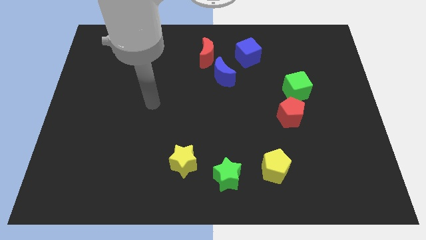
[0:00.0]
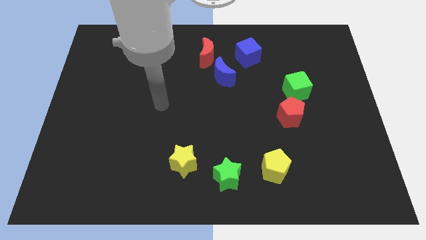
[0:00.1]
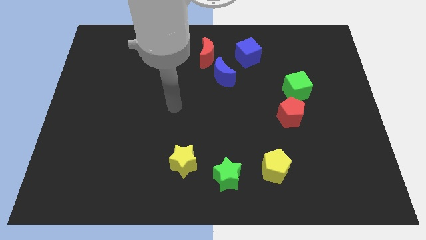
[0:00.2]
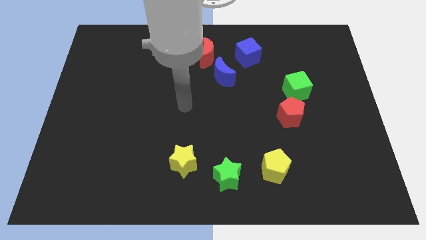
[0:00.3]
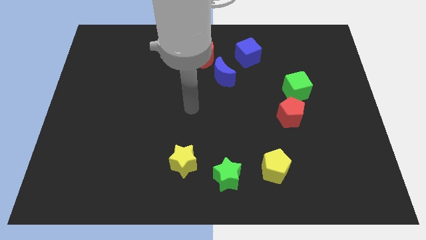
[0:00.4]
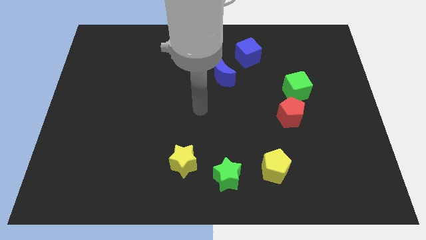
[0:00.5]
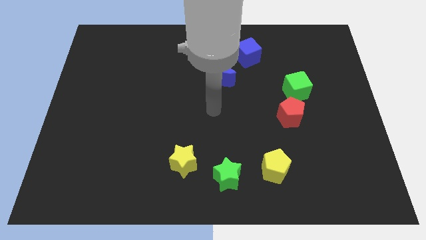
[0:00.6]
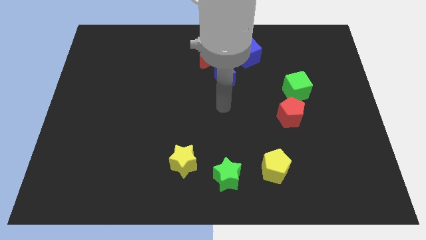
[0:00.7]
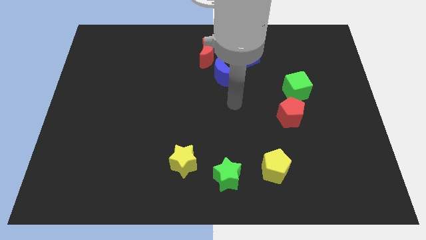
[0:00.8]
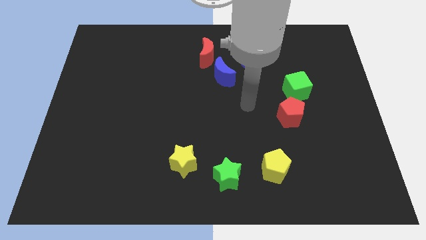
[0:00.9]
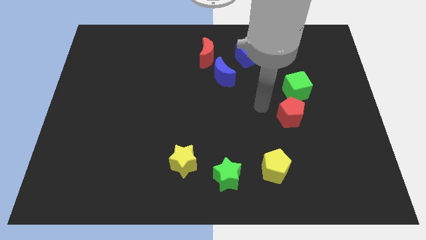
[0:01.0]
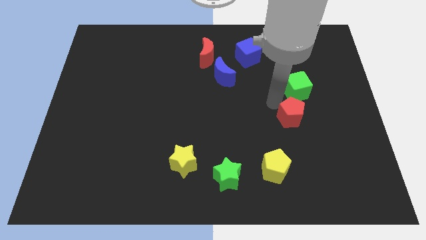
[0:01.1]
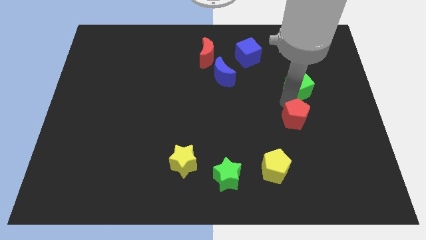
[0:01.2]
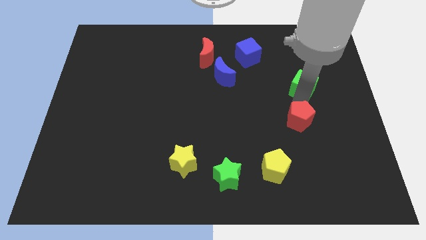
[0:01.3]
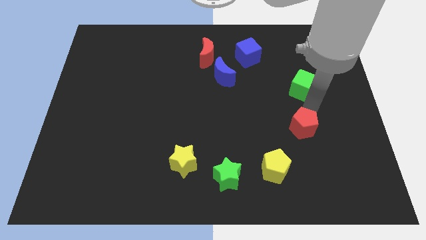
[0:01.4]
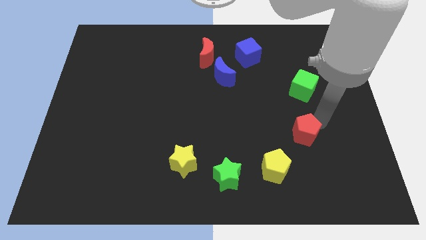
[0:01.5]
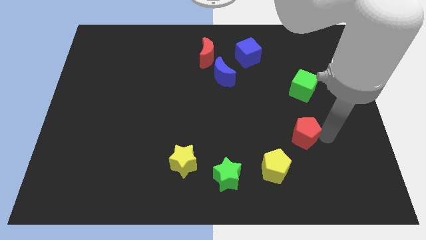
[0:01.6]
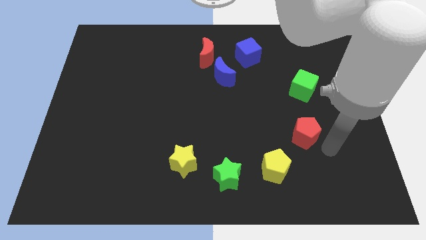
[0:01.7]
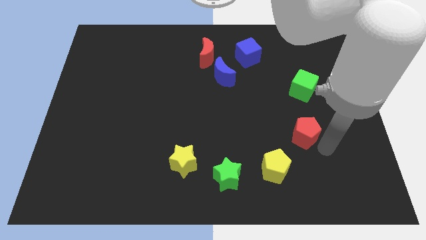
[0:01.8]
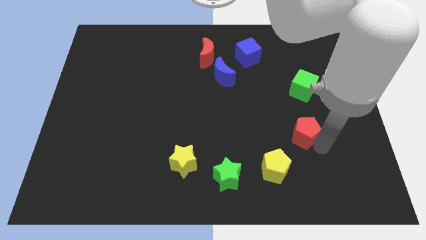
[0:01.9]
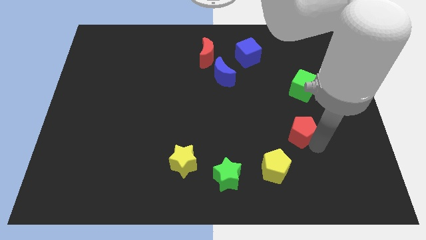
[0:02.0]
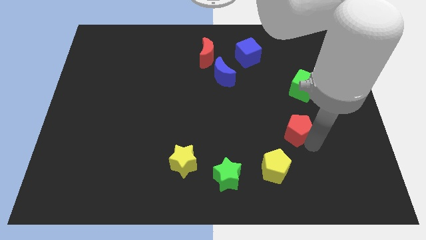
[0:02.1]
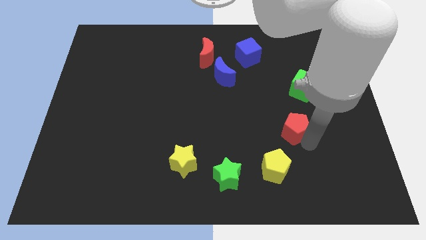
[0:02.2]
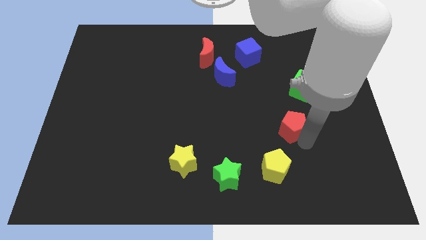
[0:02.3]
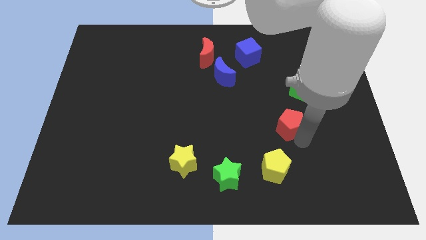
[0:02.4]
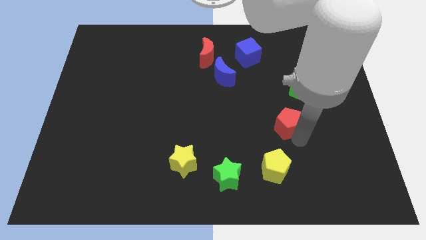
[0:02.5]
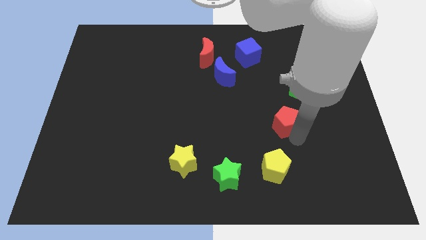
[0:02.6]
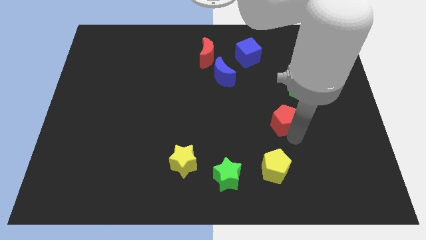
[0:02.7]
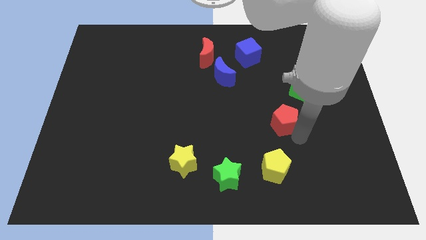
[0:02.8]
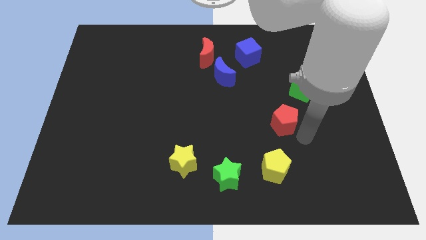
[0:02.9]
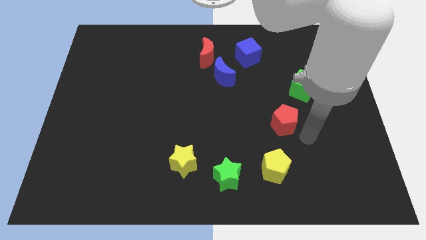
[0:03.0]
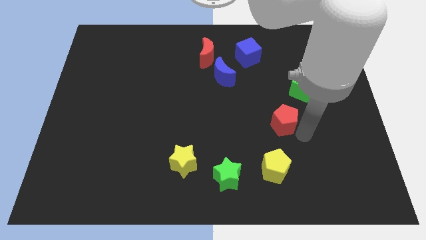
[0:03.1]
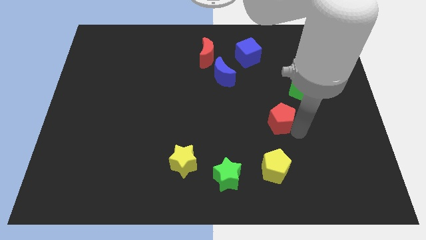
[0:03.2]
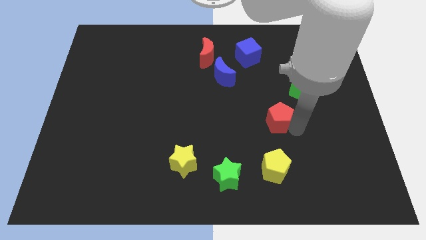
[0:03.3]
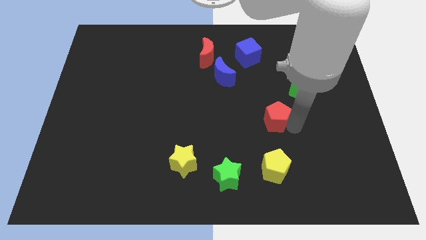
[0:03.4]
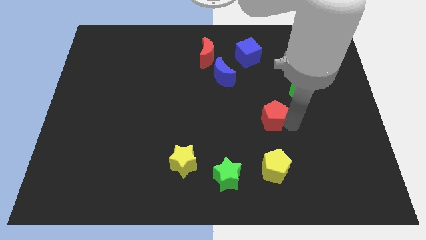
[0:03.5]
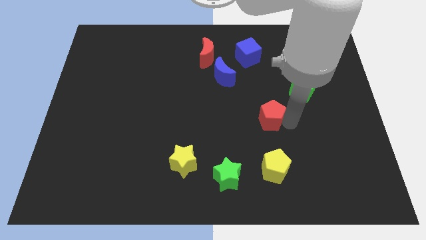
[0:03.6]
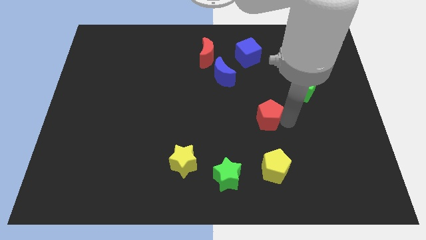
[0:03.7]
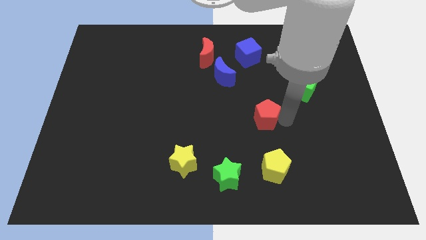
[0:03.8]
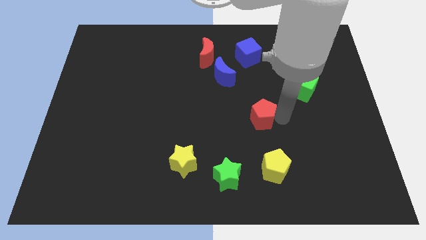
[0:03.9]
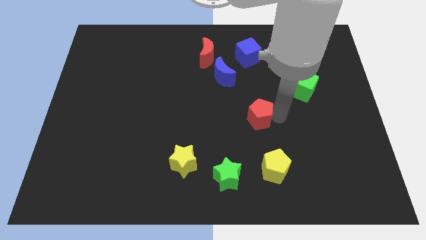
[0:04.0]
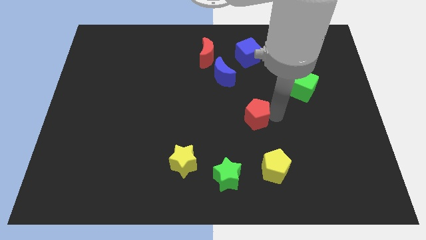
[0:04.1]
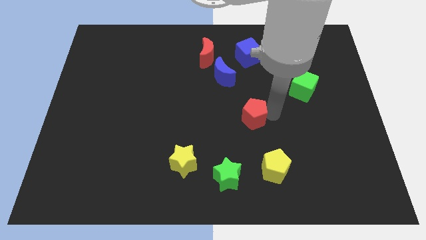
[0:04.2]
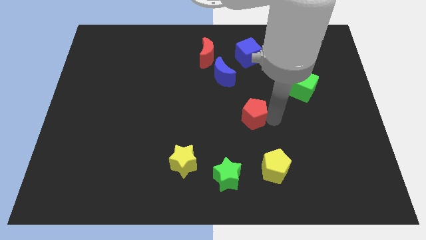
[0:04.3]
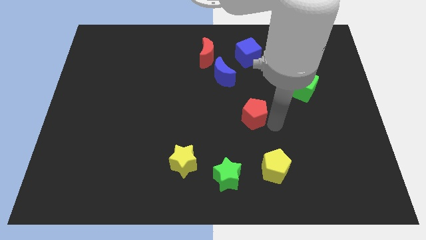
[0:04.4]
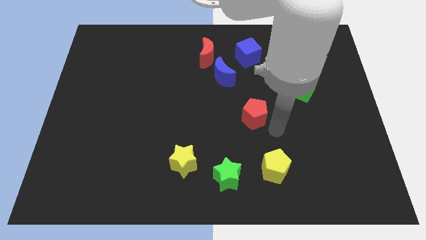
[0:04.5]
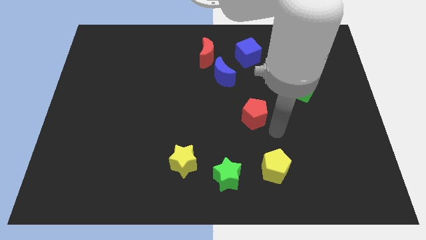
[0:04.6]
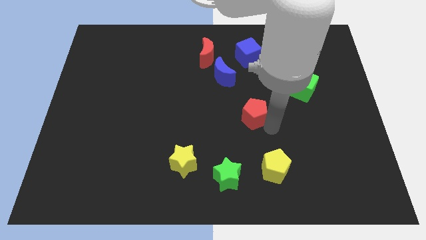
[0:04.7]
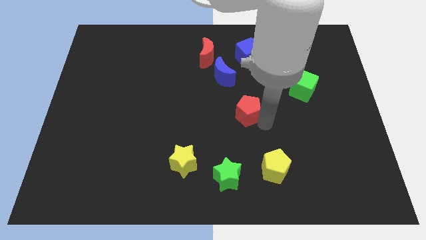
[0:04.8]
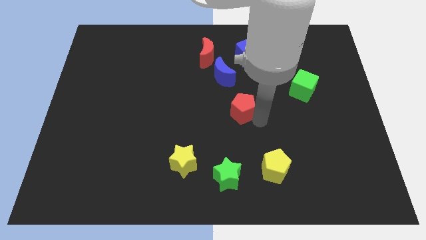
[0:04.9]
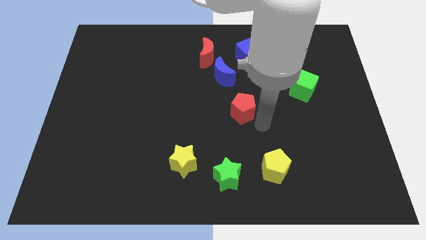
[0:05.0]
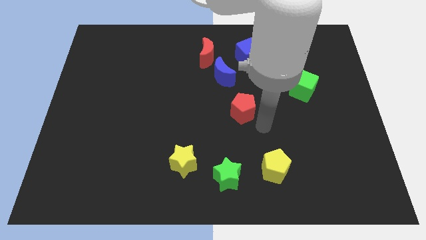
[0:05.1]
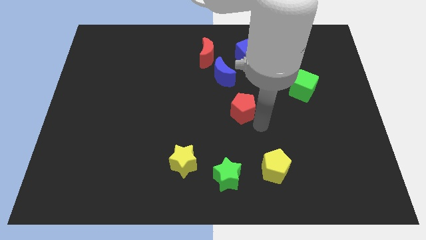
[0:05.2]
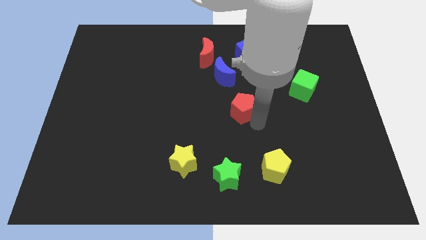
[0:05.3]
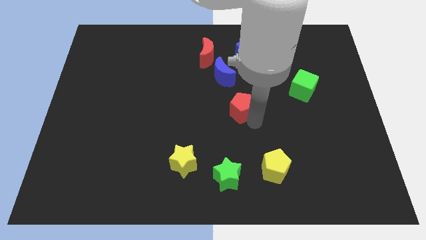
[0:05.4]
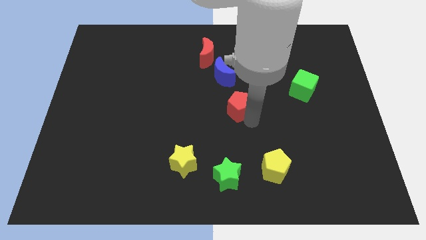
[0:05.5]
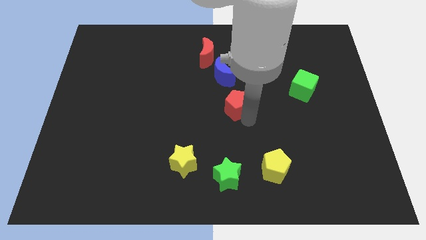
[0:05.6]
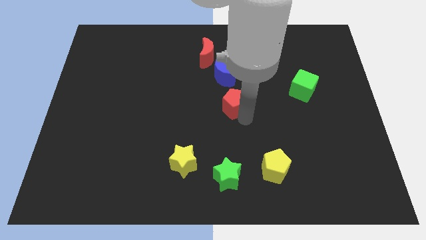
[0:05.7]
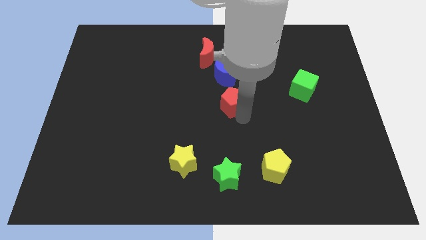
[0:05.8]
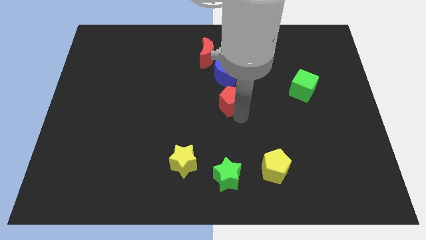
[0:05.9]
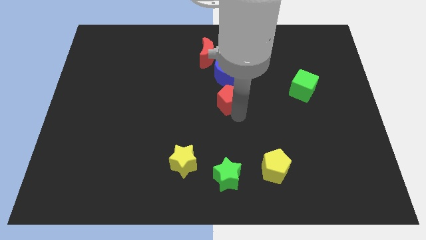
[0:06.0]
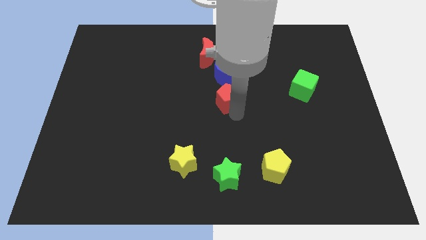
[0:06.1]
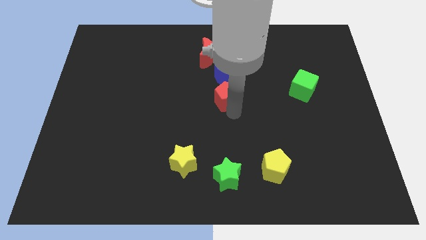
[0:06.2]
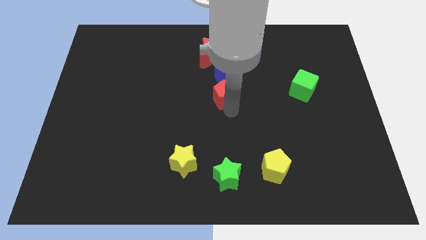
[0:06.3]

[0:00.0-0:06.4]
push the red pentagon below the red moon
